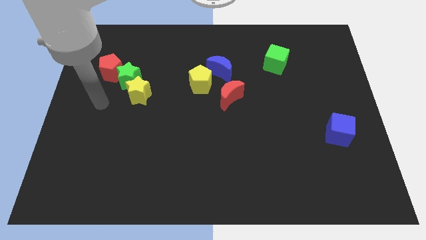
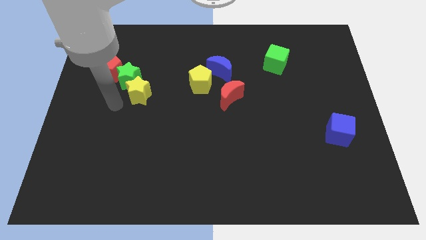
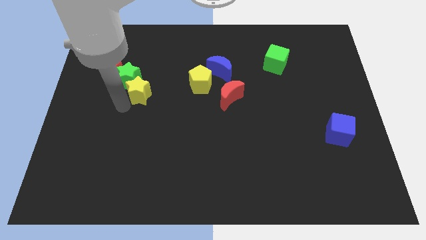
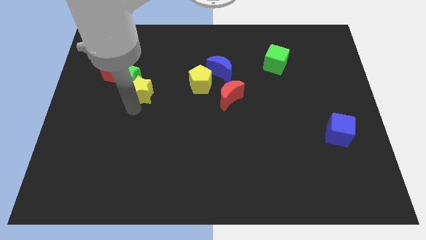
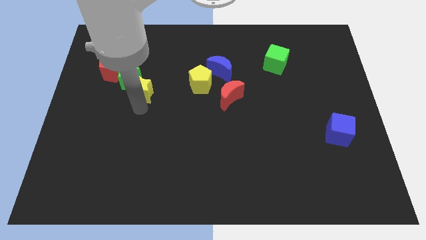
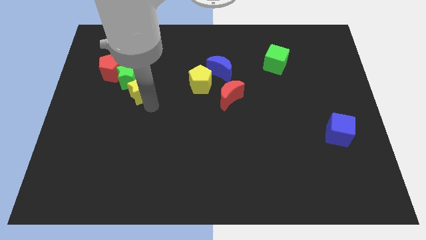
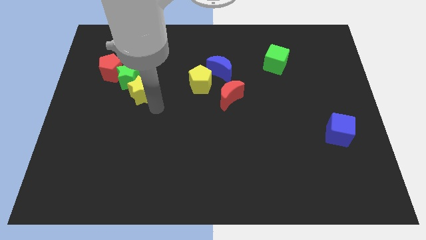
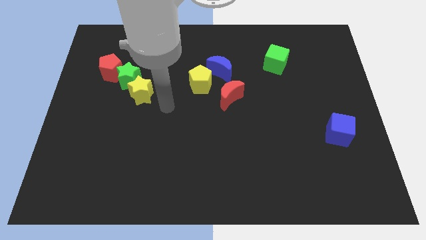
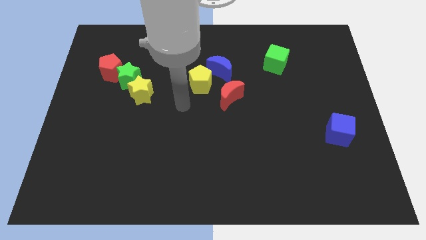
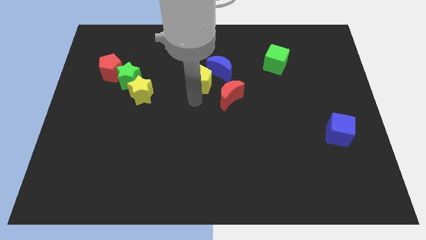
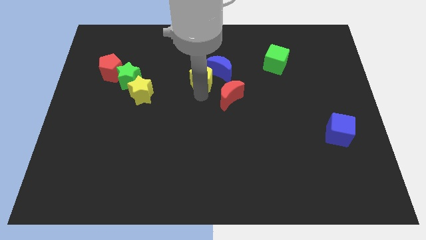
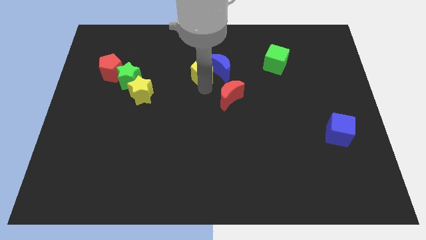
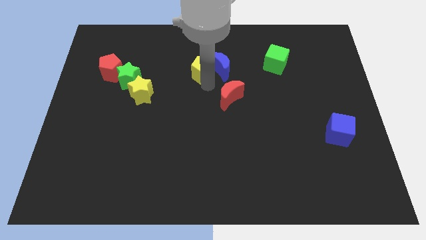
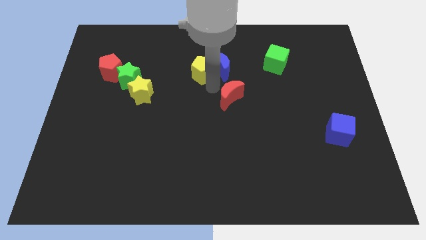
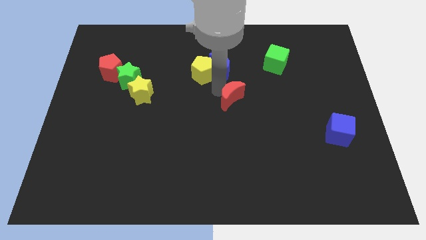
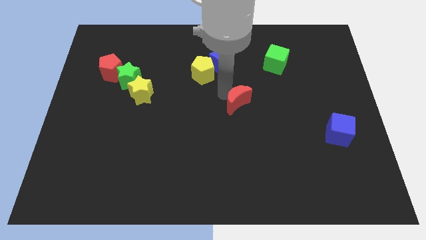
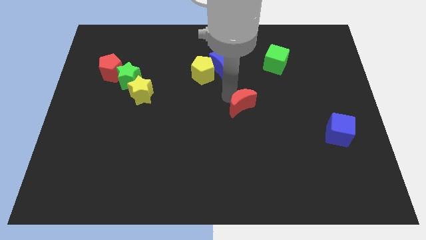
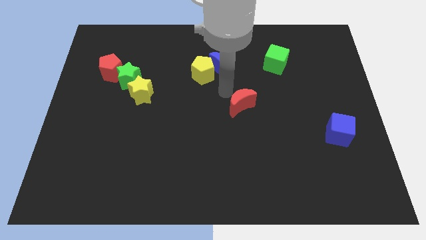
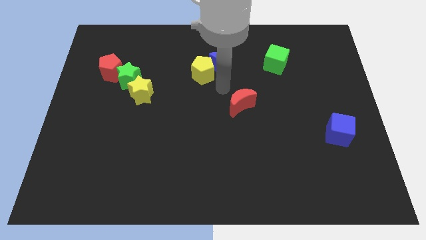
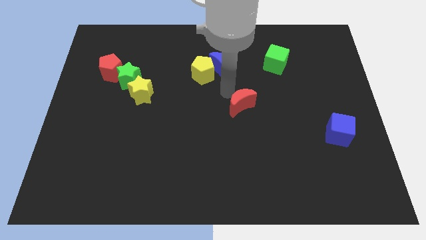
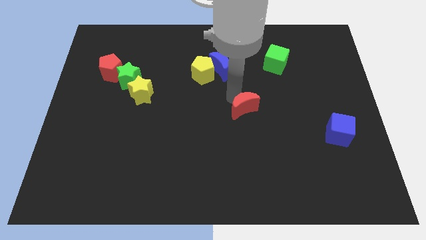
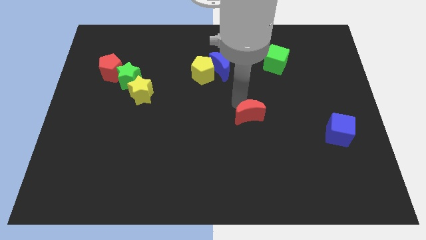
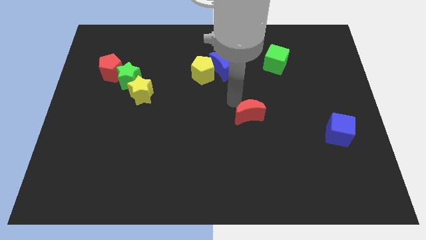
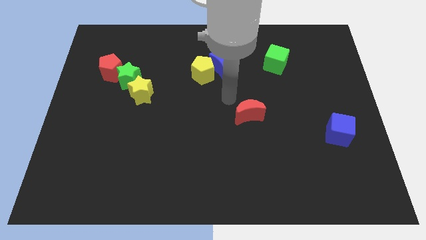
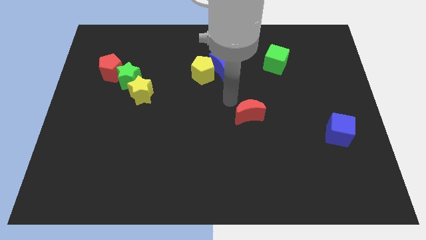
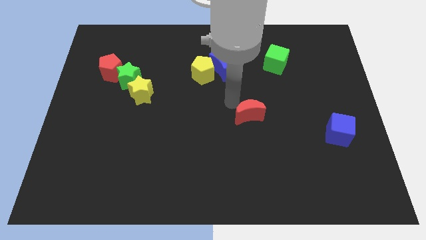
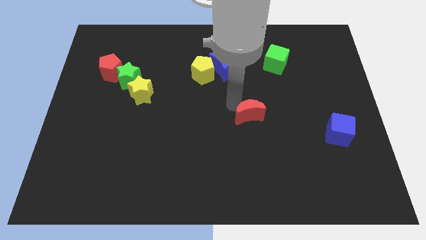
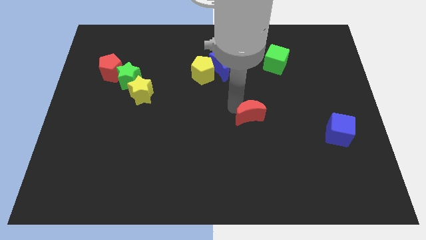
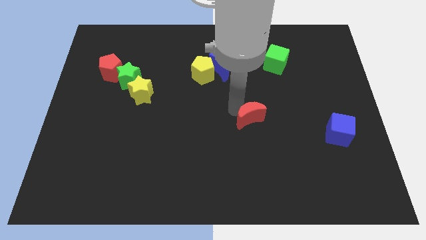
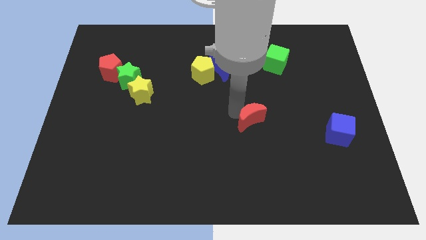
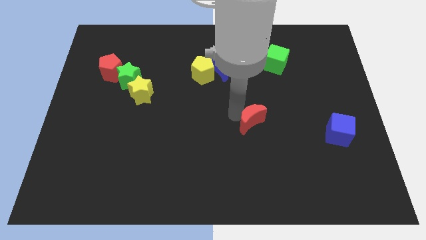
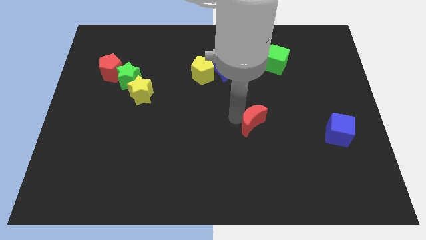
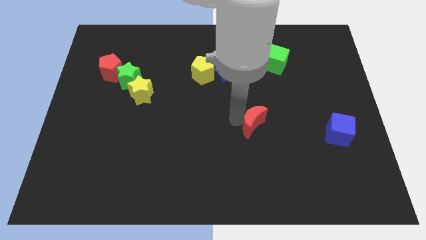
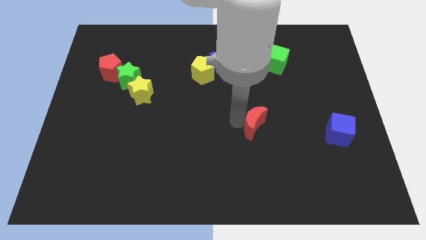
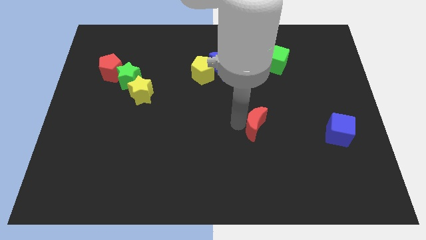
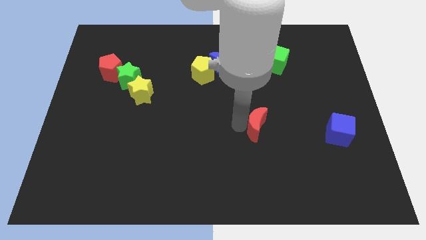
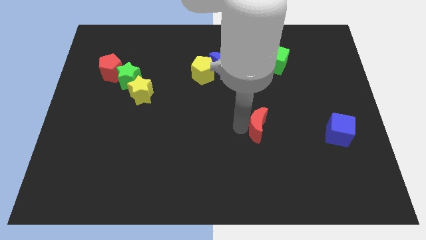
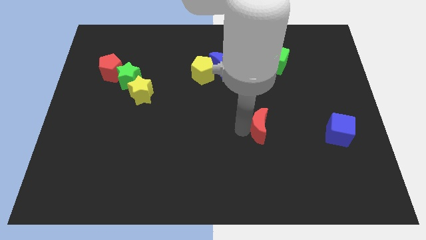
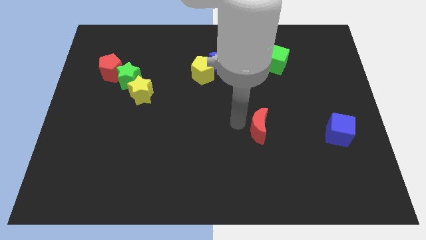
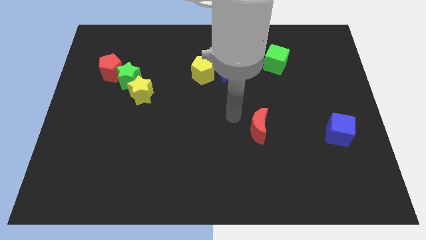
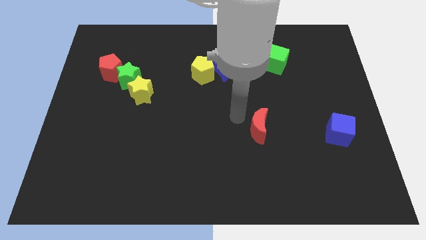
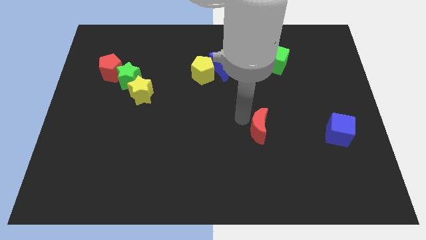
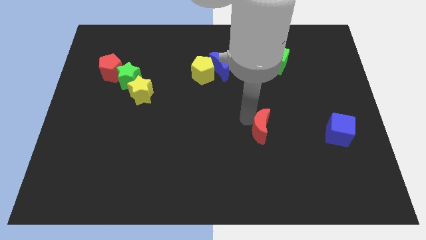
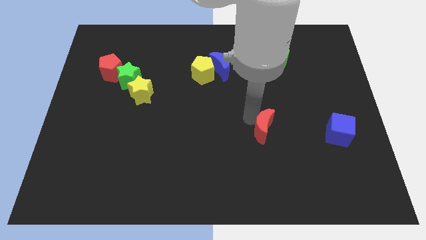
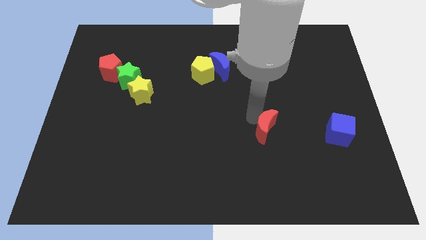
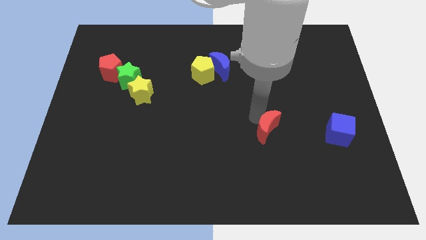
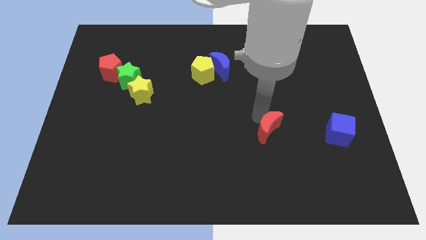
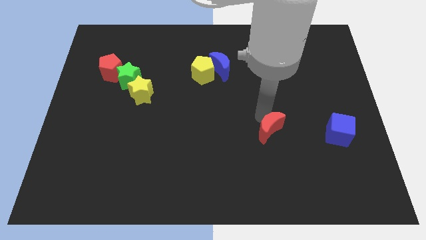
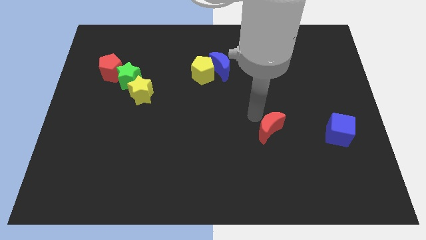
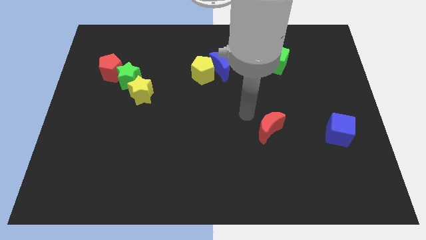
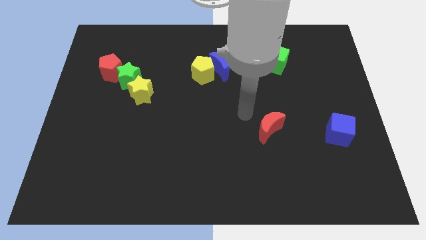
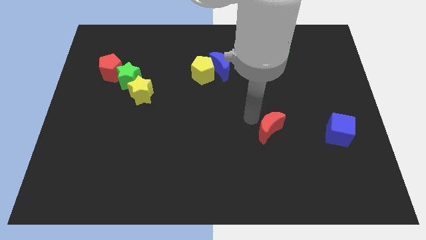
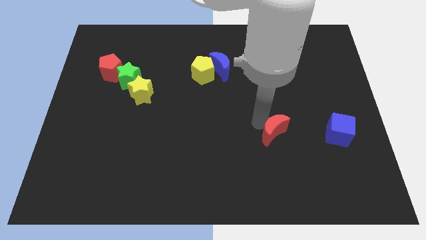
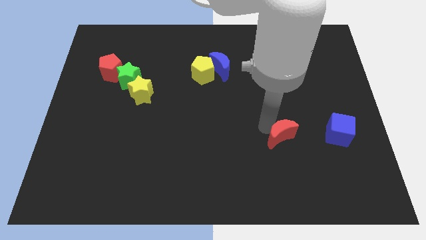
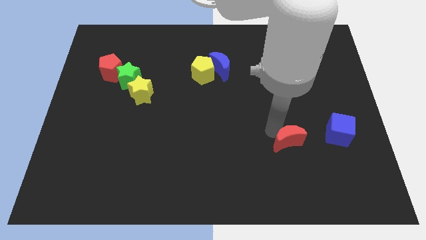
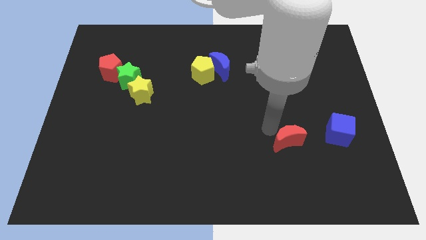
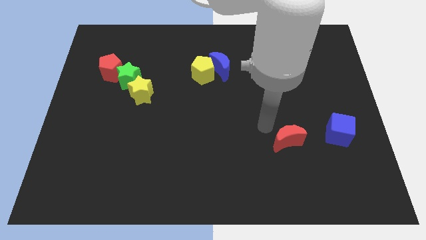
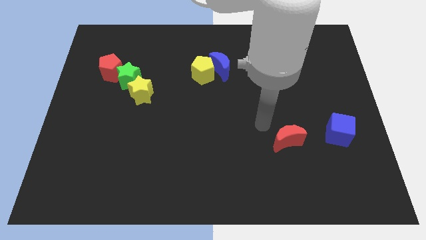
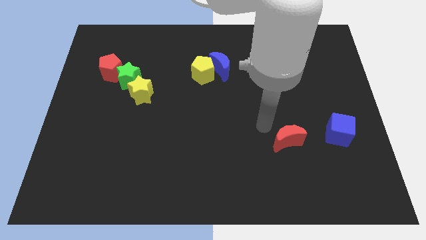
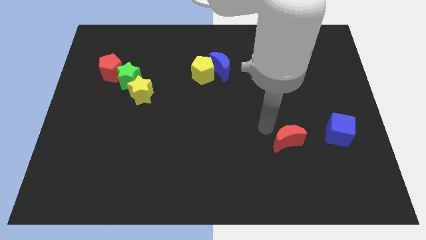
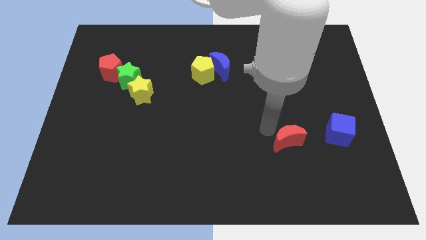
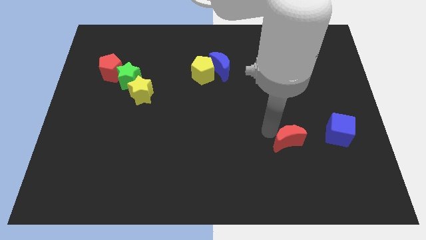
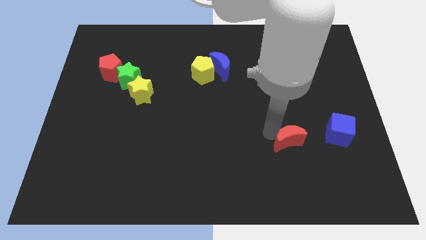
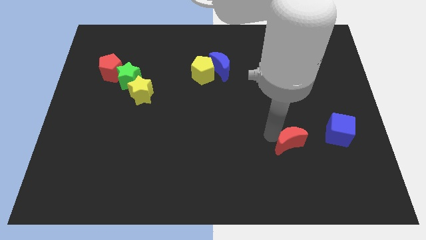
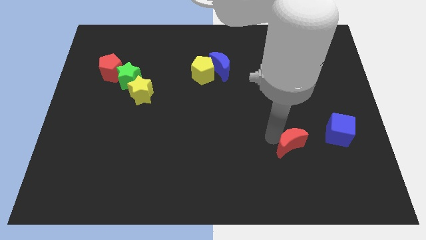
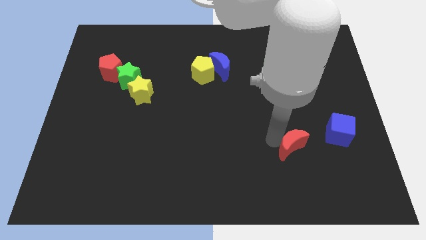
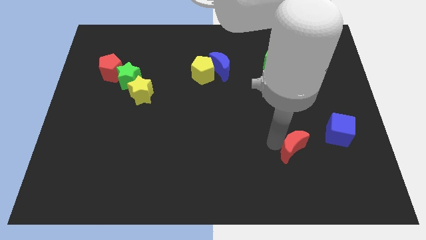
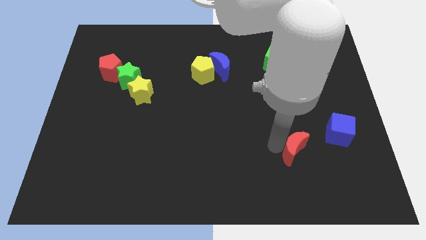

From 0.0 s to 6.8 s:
slide the red moon downwards and to the right

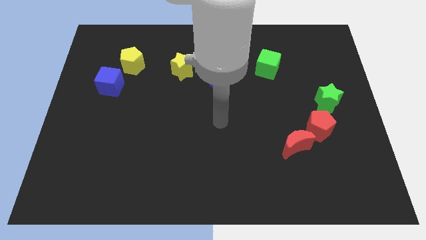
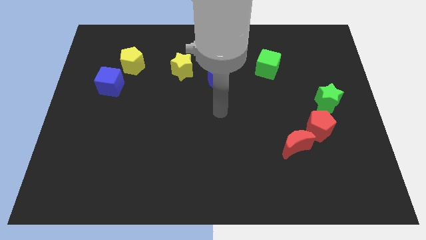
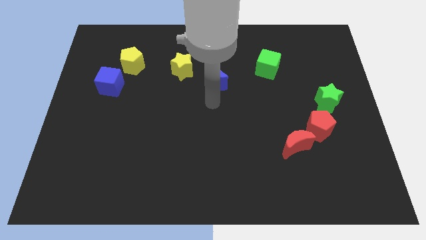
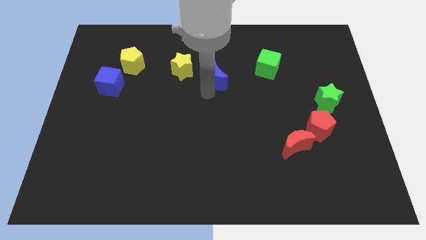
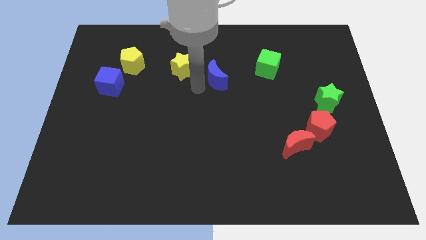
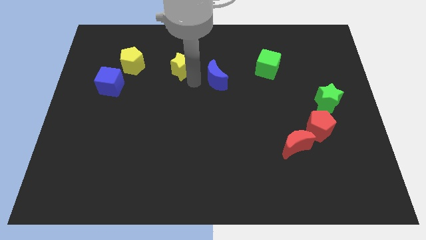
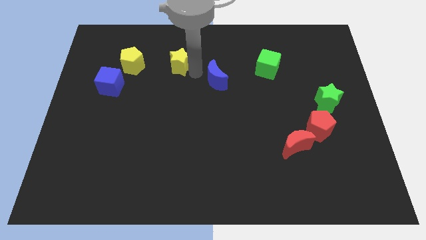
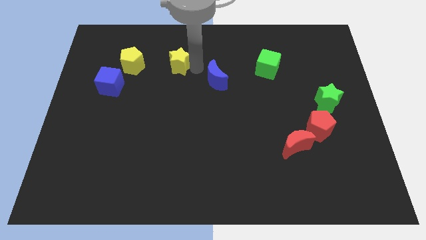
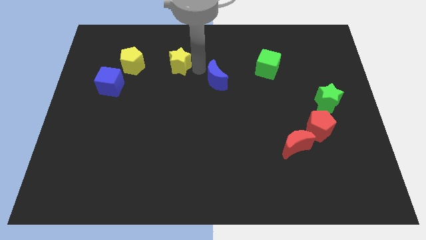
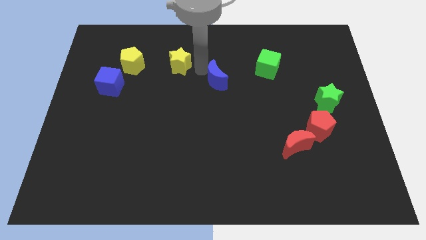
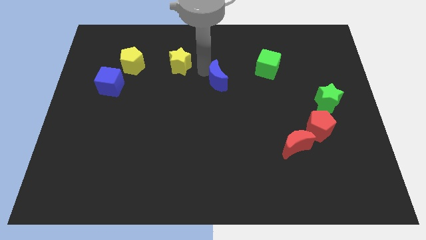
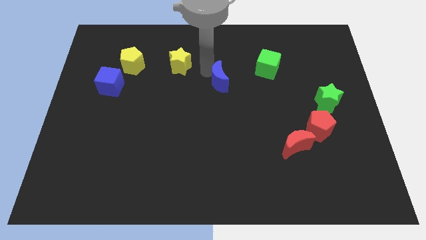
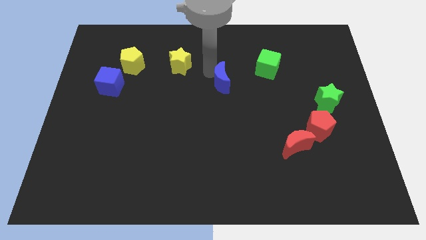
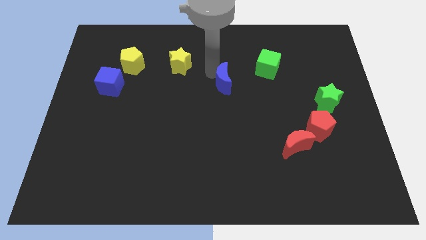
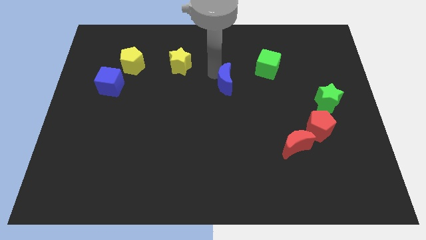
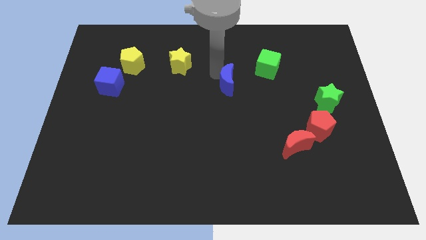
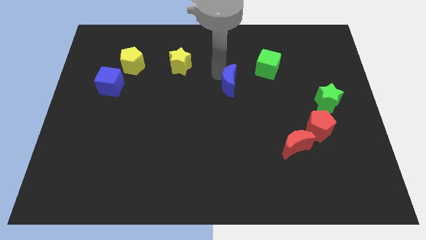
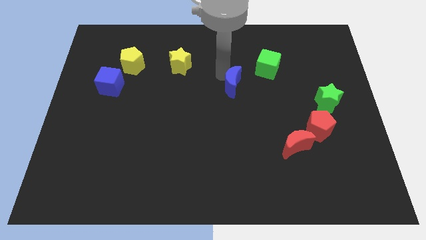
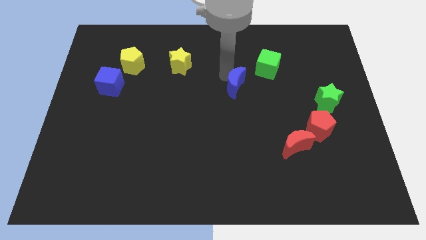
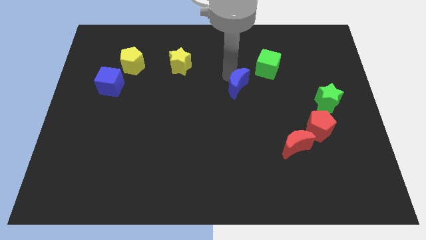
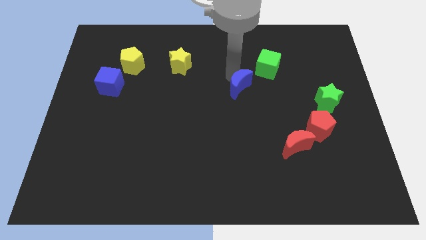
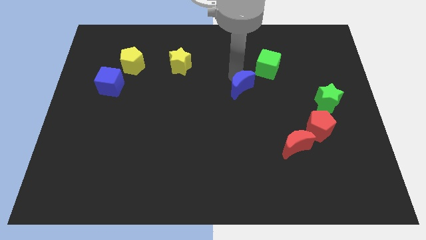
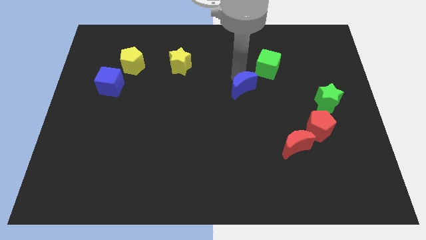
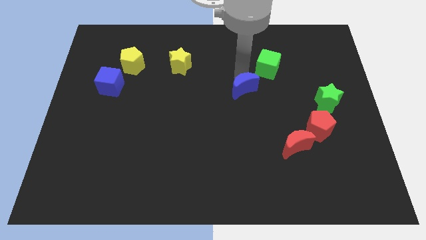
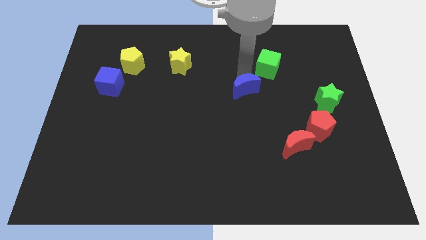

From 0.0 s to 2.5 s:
slightly move the blue moon down and right
